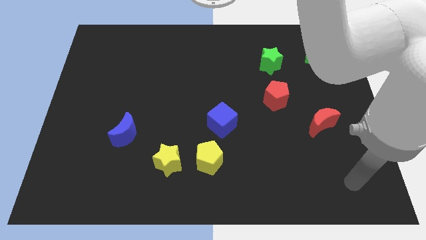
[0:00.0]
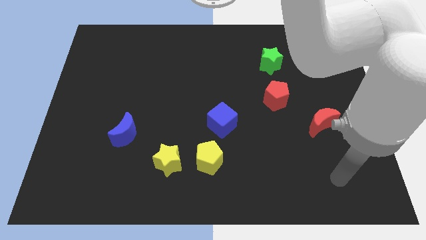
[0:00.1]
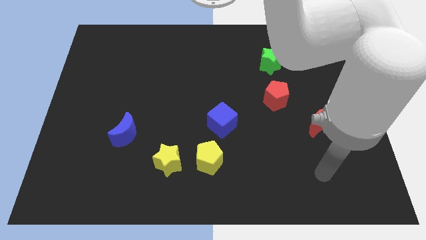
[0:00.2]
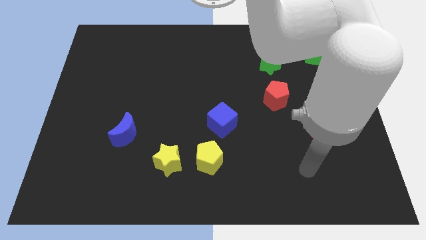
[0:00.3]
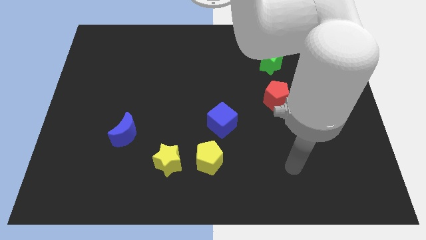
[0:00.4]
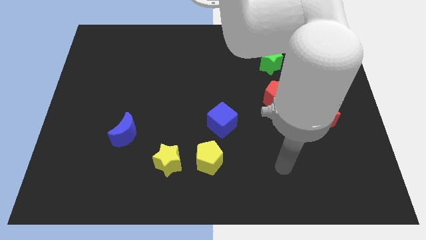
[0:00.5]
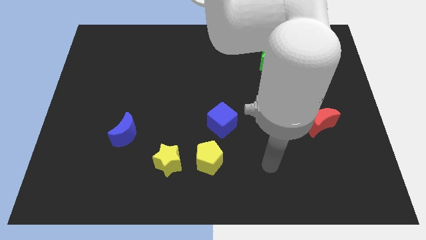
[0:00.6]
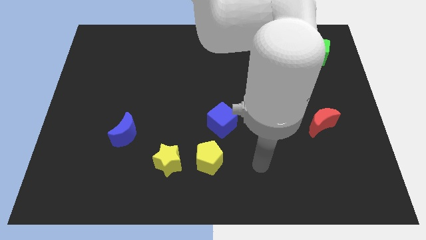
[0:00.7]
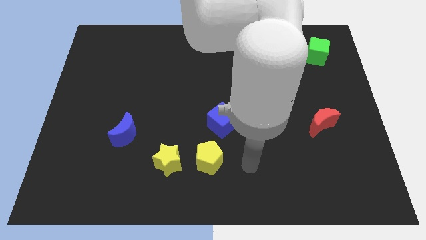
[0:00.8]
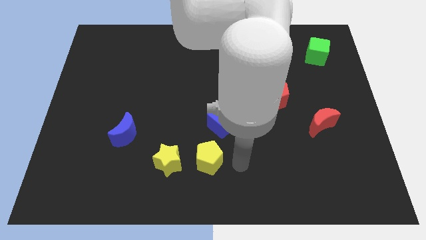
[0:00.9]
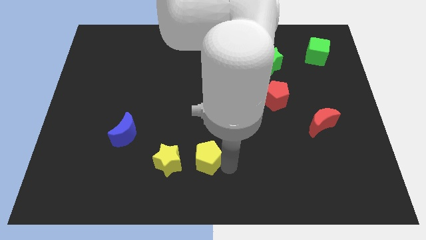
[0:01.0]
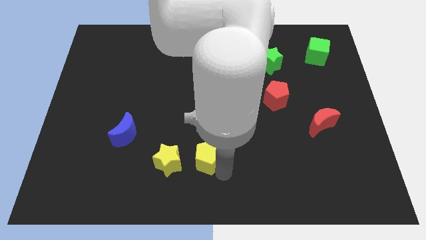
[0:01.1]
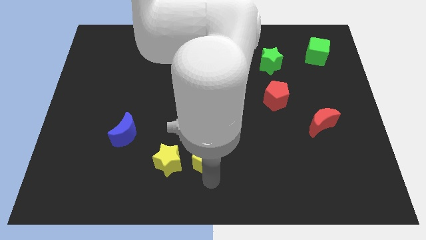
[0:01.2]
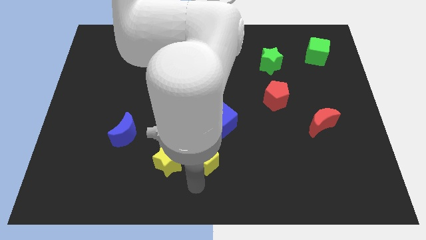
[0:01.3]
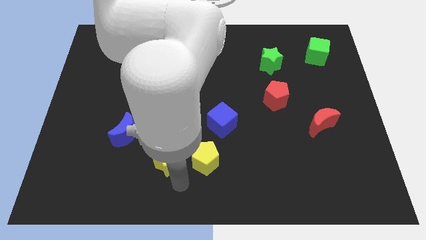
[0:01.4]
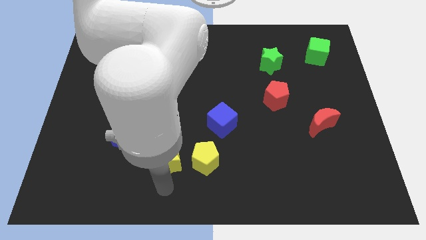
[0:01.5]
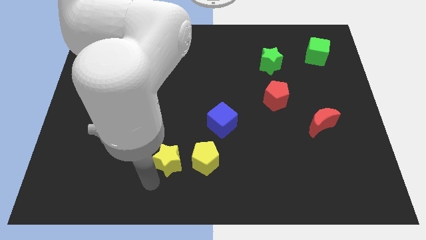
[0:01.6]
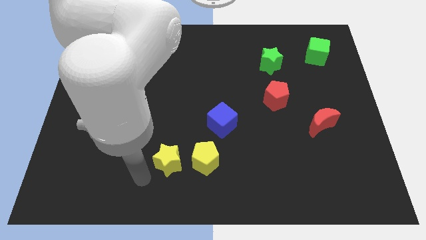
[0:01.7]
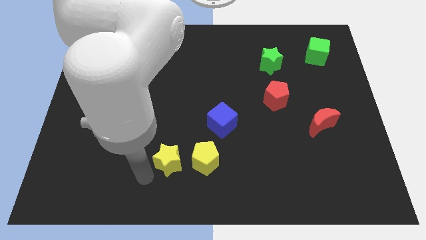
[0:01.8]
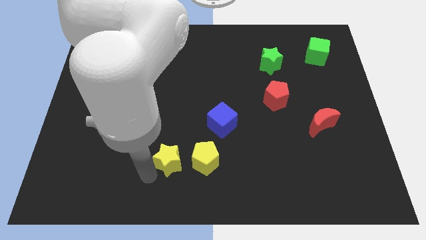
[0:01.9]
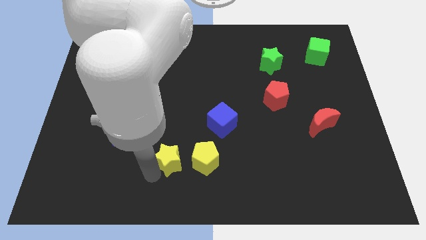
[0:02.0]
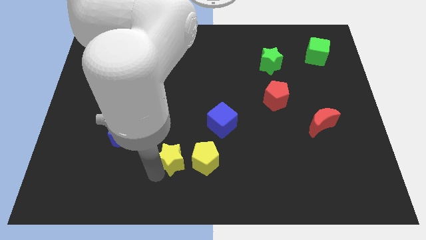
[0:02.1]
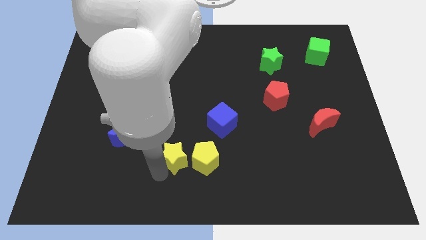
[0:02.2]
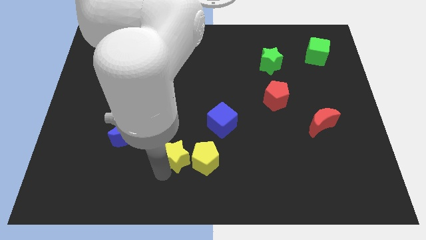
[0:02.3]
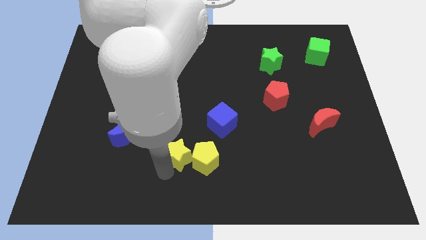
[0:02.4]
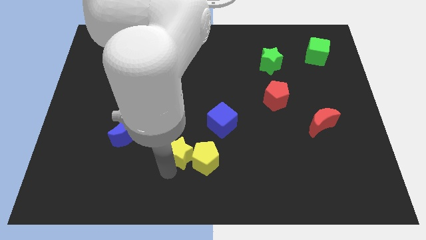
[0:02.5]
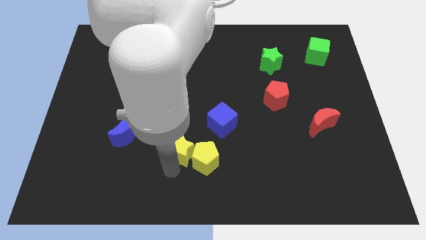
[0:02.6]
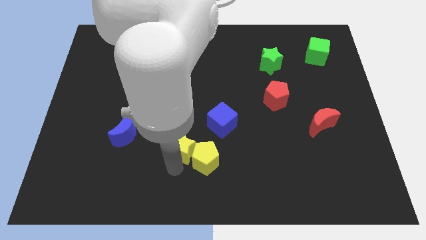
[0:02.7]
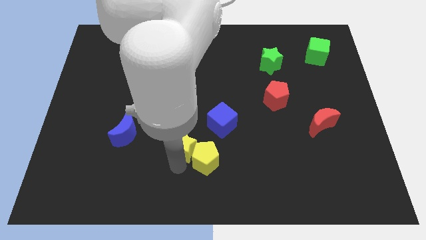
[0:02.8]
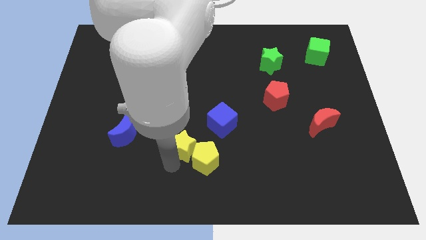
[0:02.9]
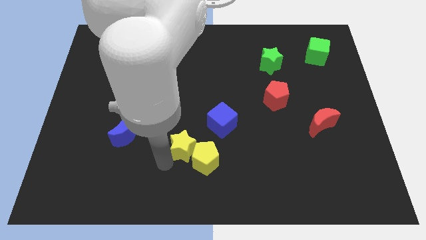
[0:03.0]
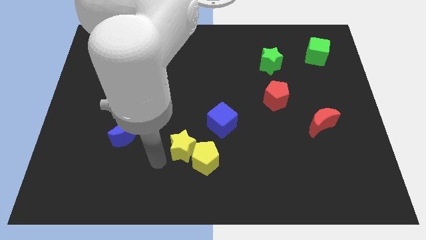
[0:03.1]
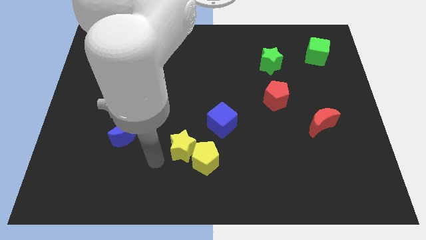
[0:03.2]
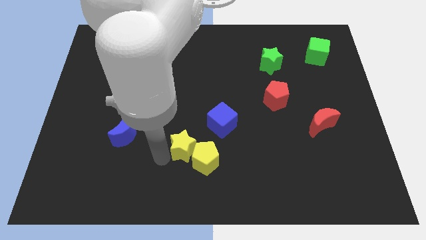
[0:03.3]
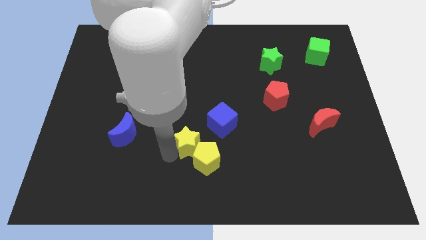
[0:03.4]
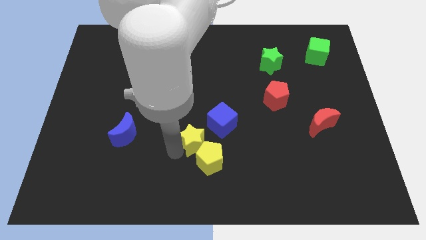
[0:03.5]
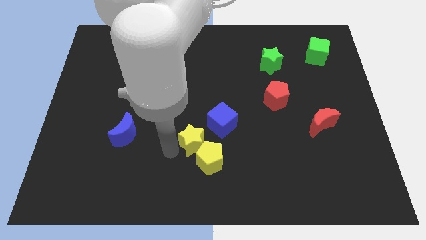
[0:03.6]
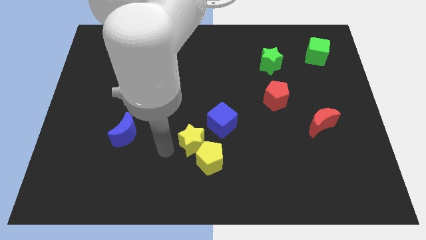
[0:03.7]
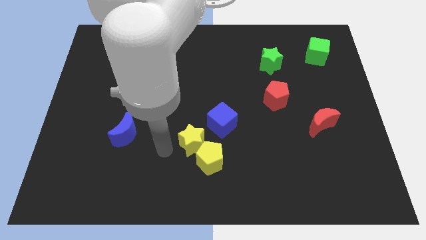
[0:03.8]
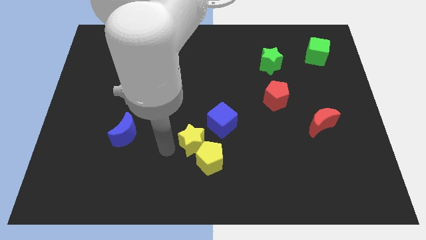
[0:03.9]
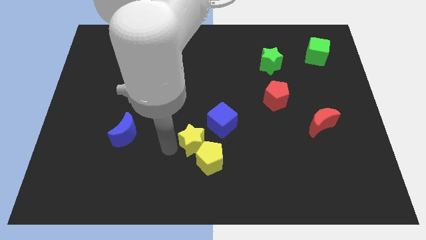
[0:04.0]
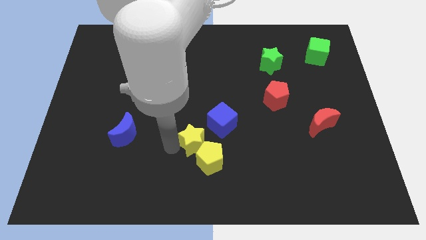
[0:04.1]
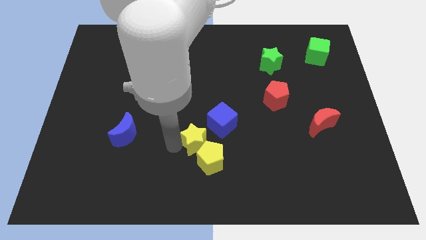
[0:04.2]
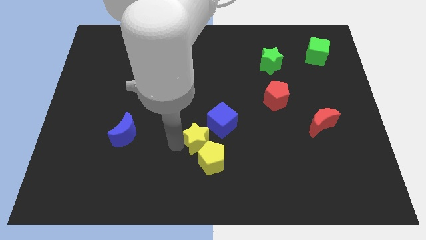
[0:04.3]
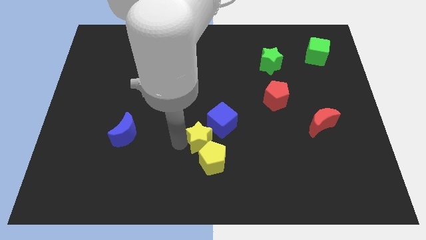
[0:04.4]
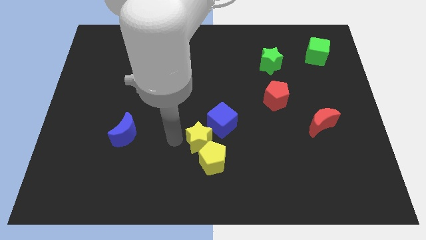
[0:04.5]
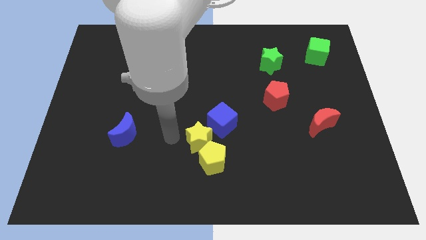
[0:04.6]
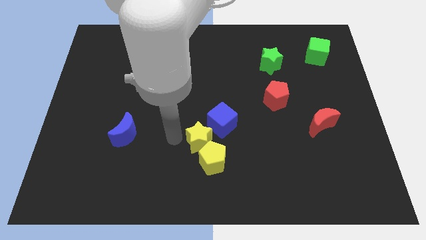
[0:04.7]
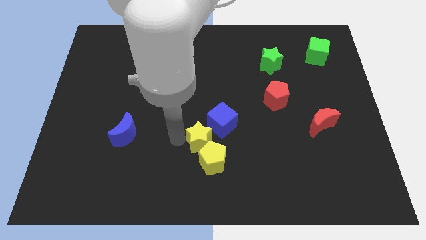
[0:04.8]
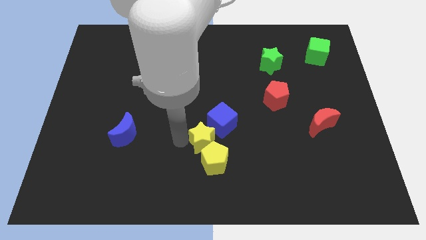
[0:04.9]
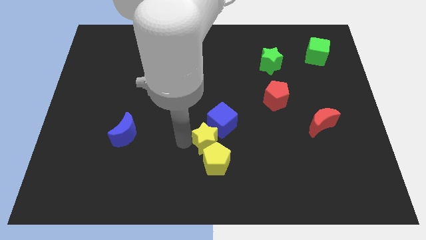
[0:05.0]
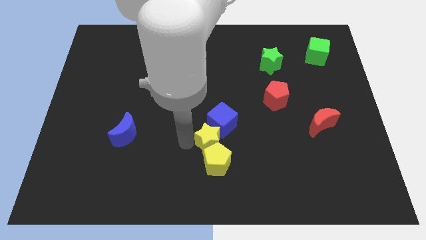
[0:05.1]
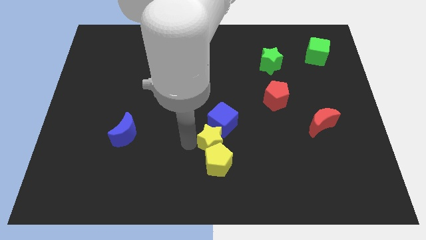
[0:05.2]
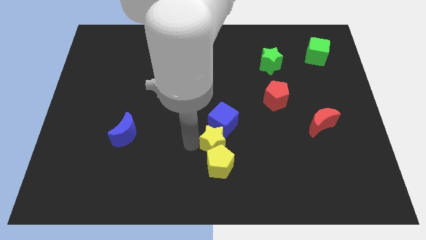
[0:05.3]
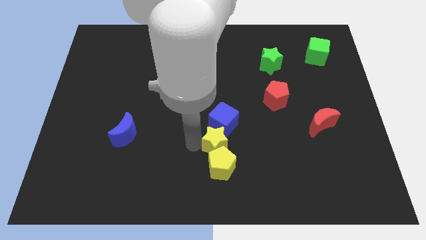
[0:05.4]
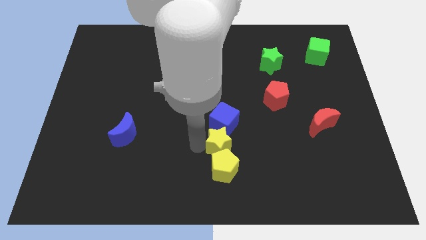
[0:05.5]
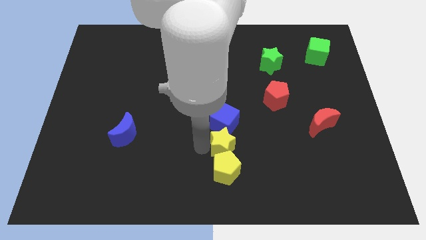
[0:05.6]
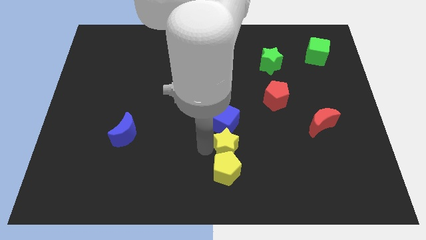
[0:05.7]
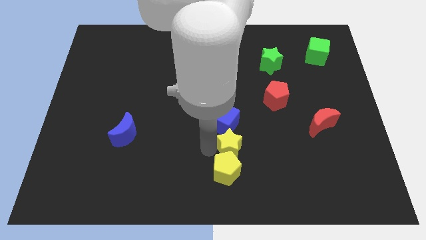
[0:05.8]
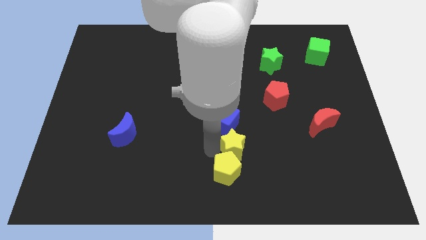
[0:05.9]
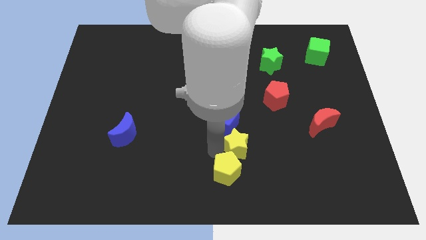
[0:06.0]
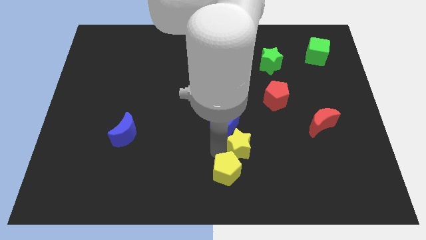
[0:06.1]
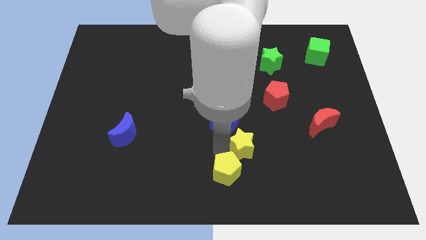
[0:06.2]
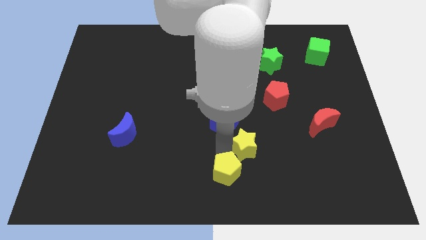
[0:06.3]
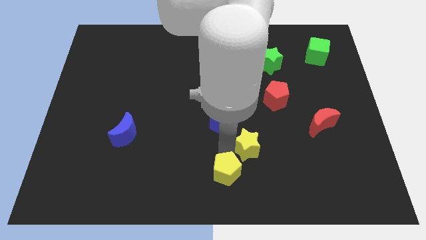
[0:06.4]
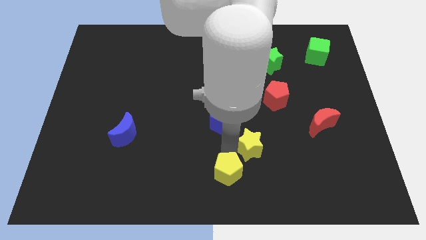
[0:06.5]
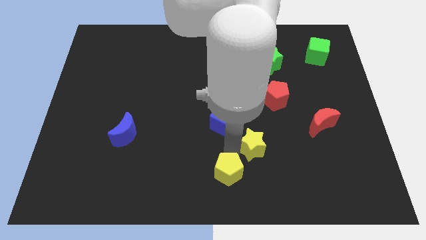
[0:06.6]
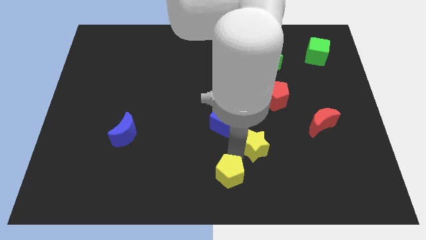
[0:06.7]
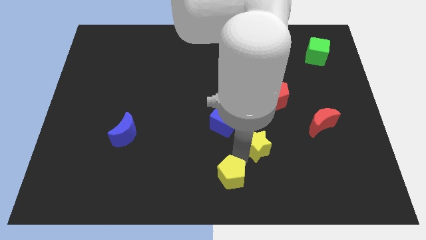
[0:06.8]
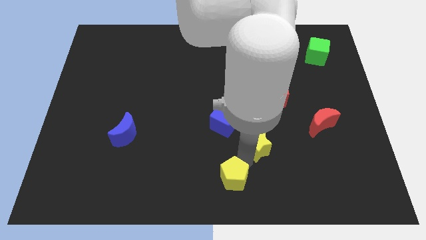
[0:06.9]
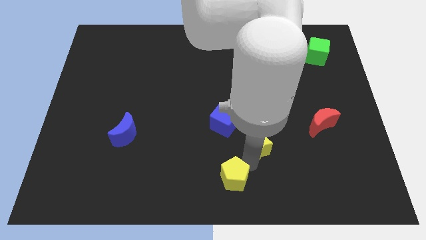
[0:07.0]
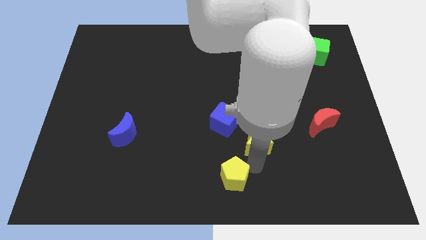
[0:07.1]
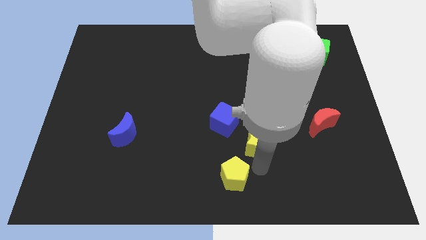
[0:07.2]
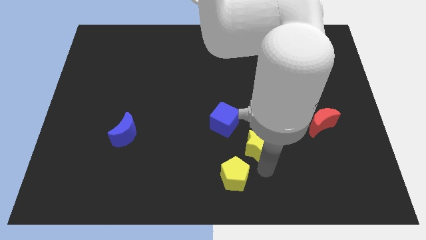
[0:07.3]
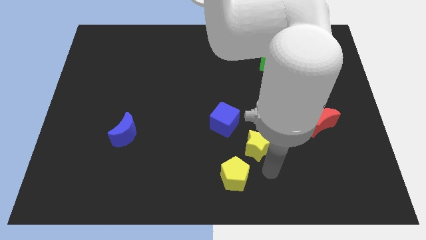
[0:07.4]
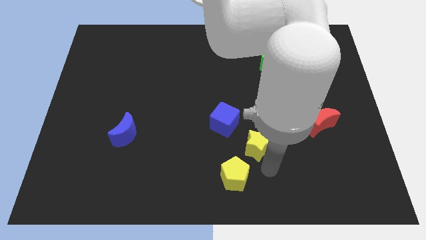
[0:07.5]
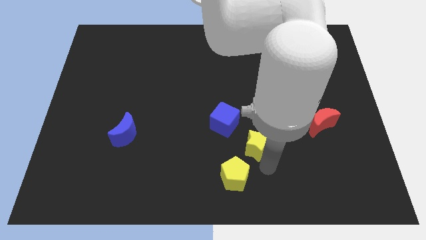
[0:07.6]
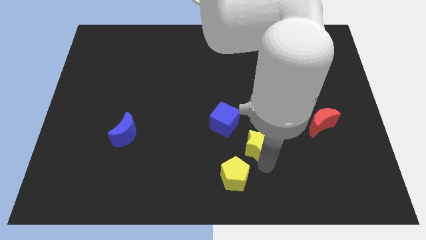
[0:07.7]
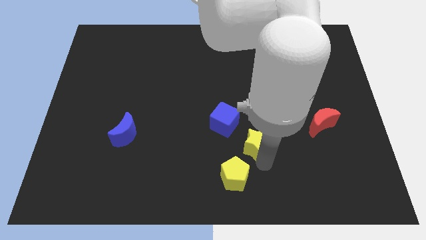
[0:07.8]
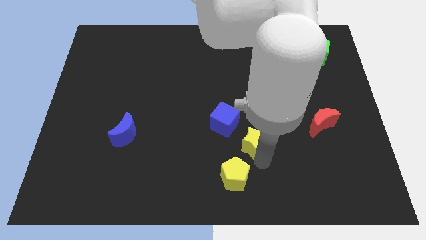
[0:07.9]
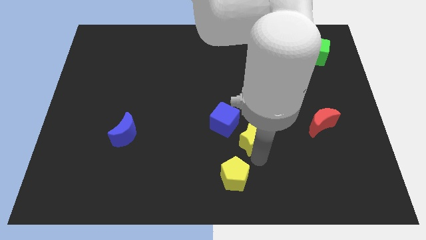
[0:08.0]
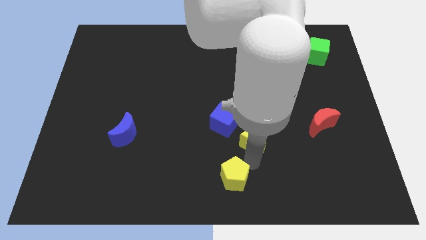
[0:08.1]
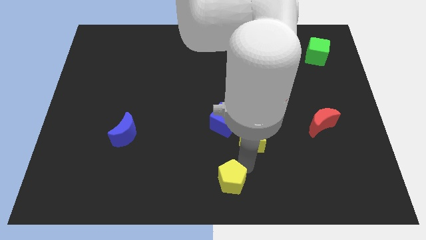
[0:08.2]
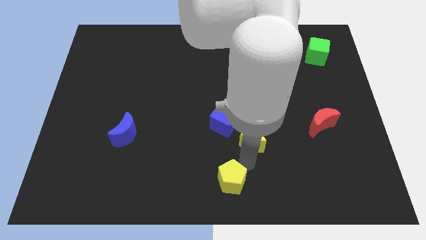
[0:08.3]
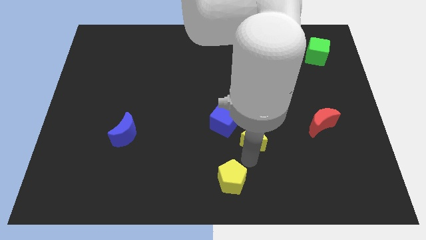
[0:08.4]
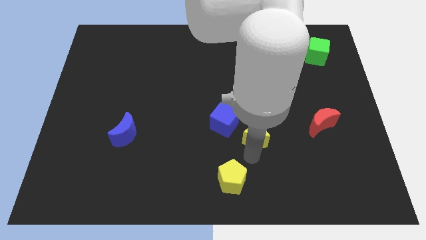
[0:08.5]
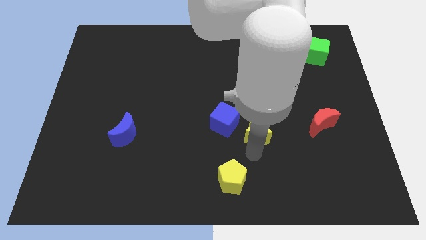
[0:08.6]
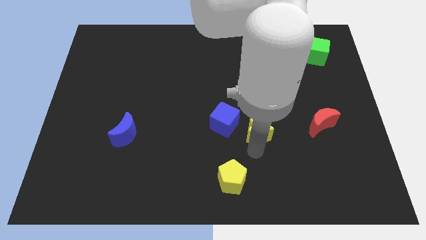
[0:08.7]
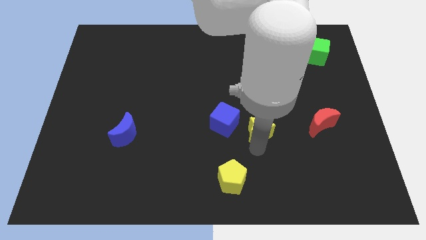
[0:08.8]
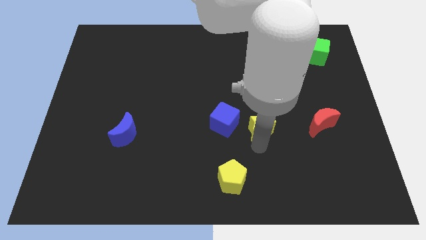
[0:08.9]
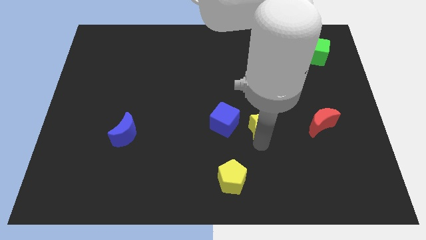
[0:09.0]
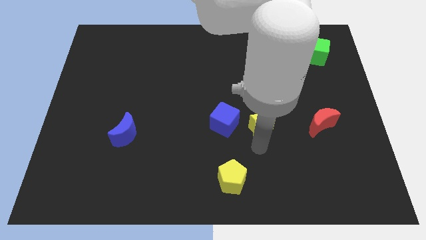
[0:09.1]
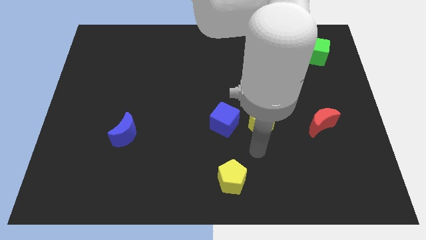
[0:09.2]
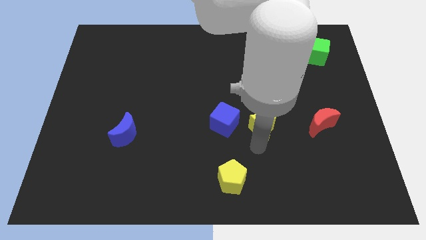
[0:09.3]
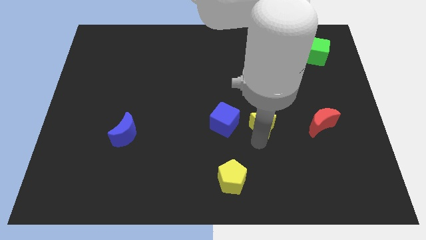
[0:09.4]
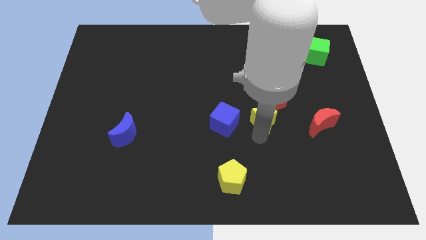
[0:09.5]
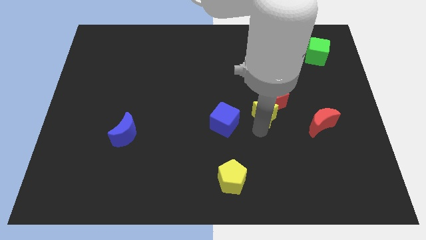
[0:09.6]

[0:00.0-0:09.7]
put the yellow star to the red pentagon
